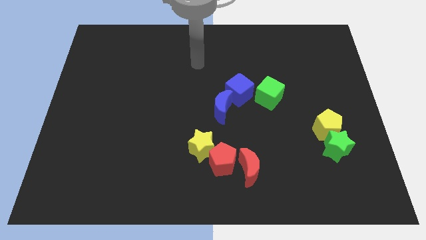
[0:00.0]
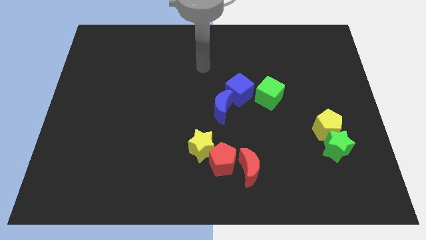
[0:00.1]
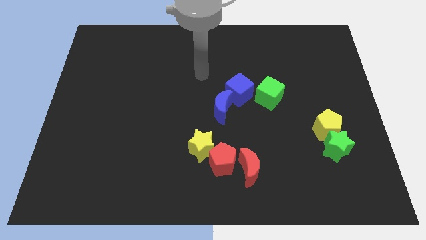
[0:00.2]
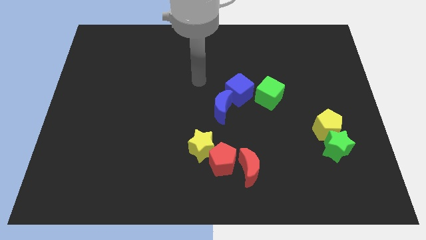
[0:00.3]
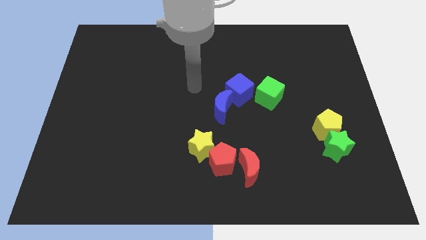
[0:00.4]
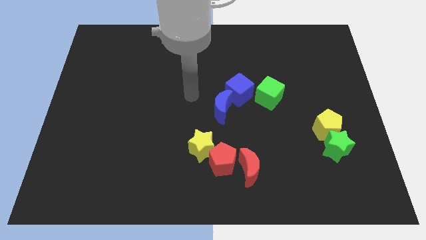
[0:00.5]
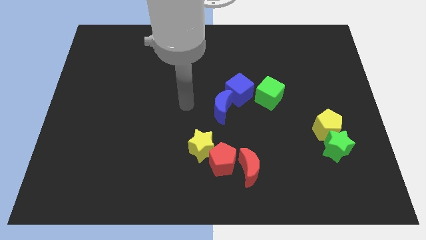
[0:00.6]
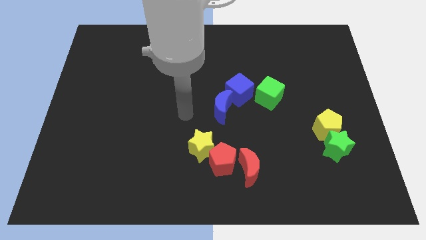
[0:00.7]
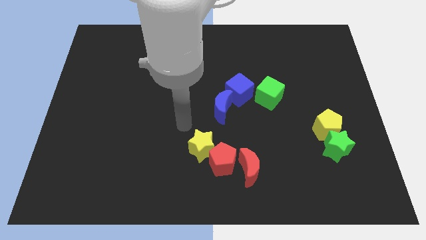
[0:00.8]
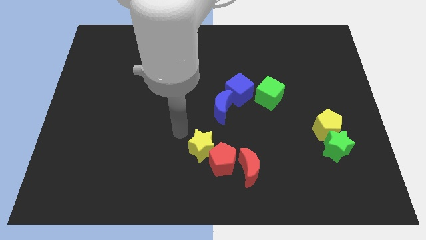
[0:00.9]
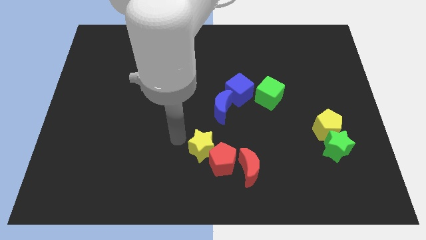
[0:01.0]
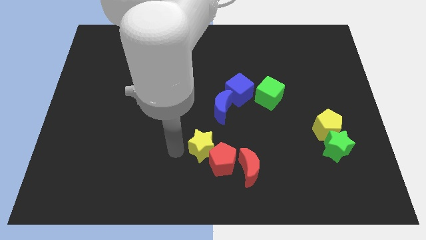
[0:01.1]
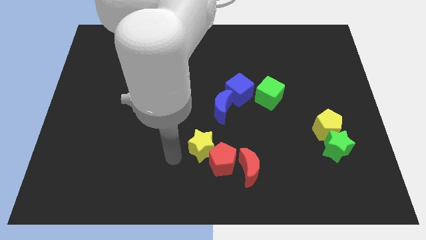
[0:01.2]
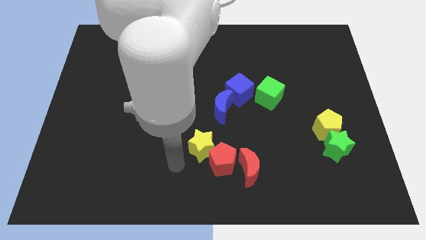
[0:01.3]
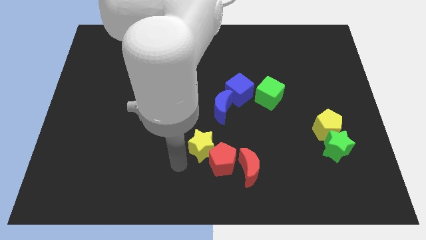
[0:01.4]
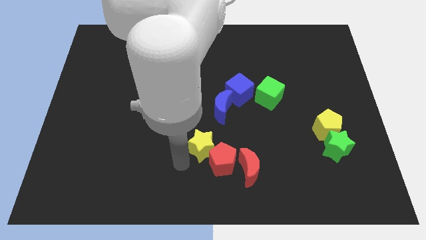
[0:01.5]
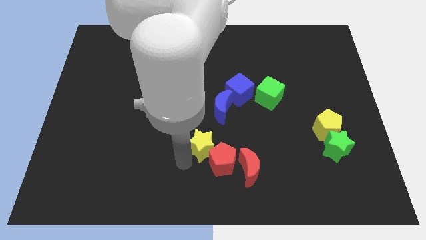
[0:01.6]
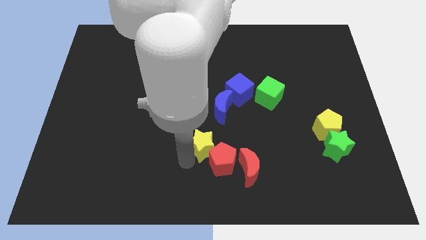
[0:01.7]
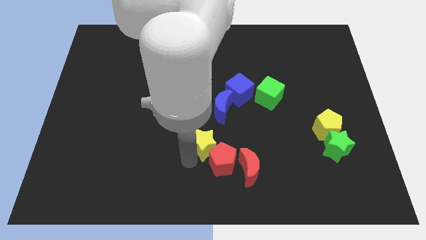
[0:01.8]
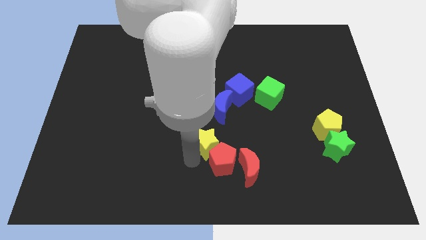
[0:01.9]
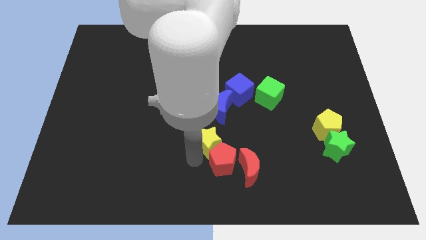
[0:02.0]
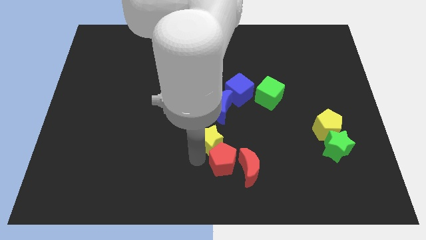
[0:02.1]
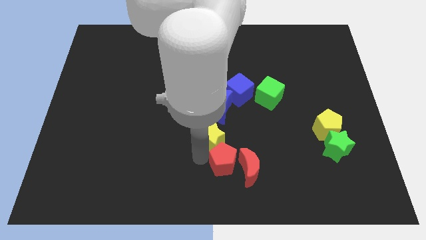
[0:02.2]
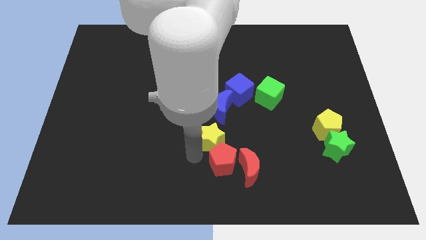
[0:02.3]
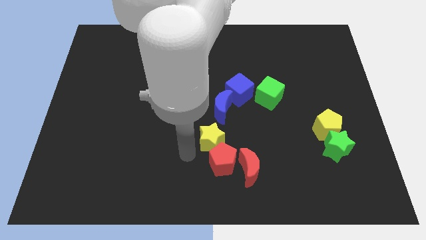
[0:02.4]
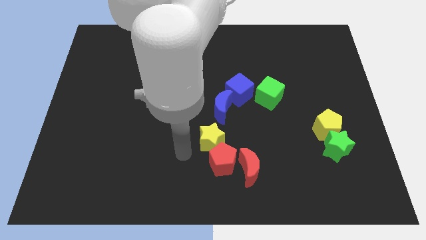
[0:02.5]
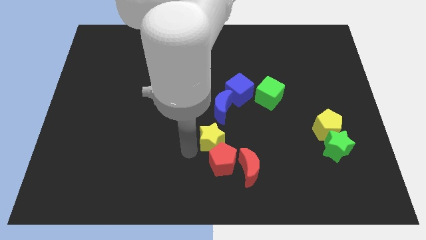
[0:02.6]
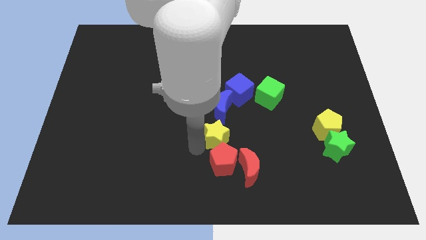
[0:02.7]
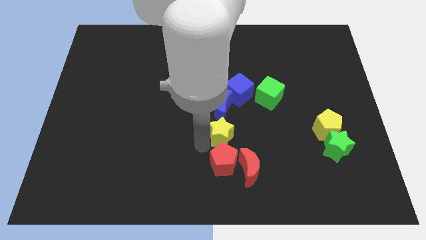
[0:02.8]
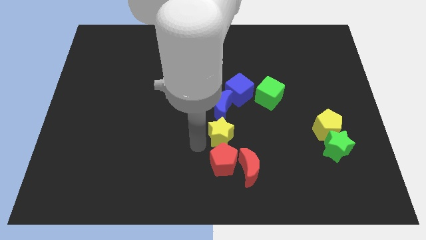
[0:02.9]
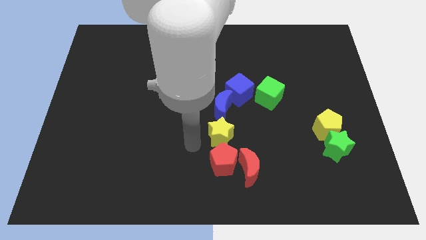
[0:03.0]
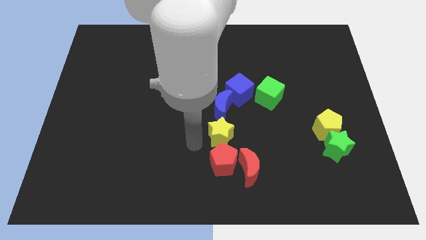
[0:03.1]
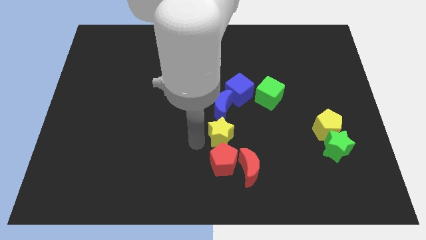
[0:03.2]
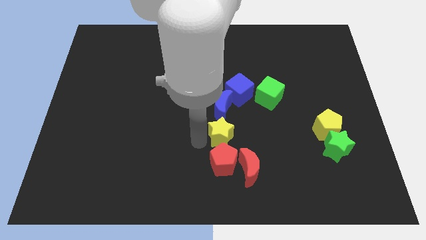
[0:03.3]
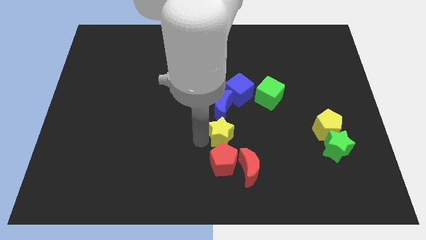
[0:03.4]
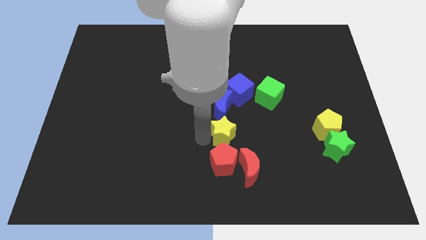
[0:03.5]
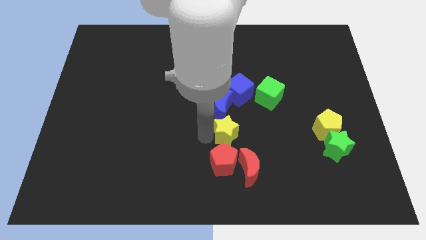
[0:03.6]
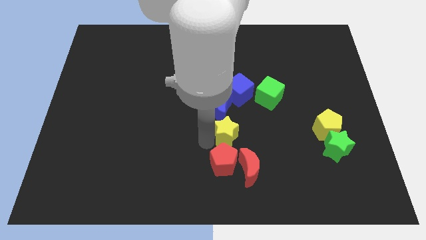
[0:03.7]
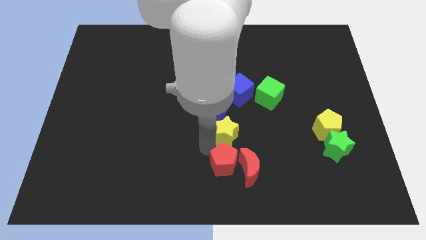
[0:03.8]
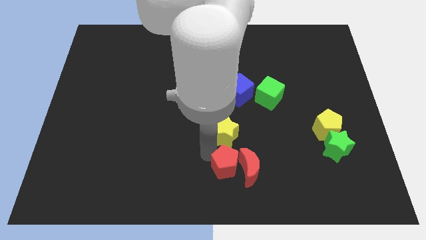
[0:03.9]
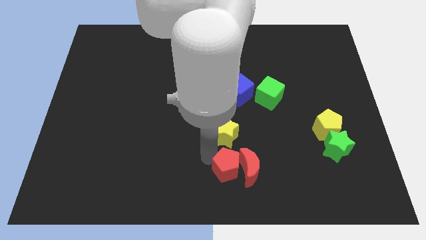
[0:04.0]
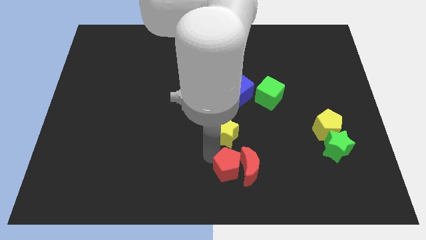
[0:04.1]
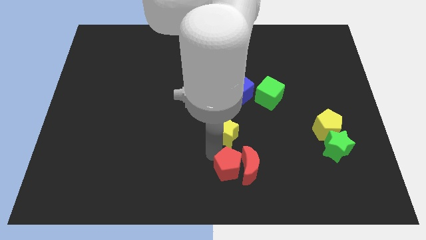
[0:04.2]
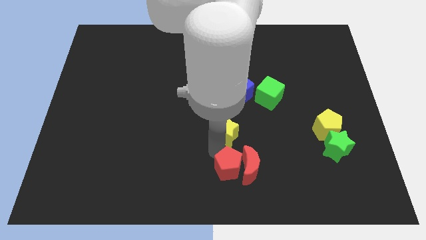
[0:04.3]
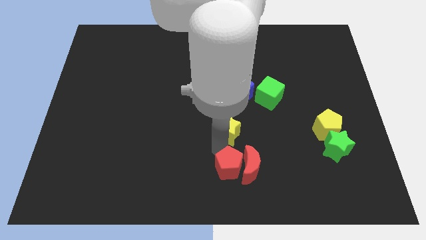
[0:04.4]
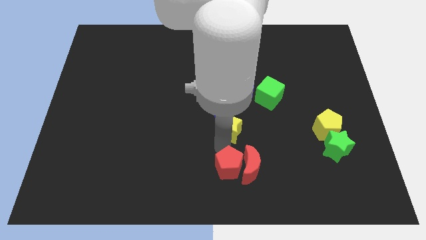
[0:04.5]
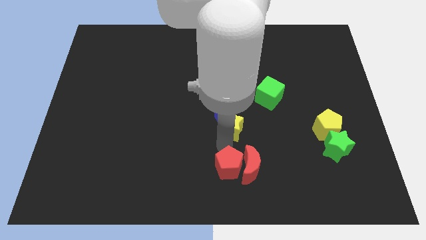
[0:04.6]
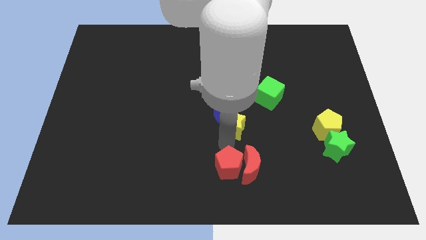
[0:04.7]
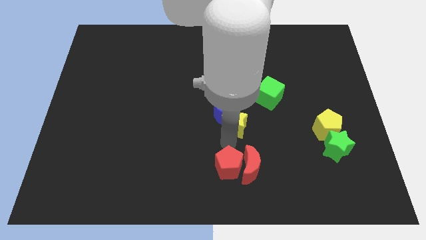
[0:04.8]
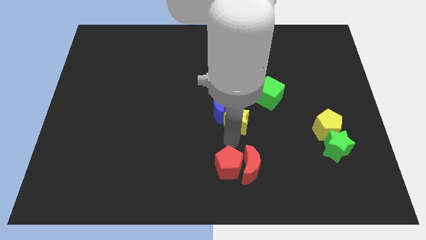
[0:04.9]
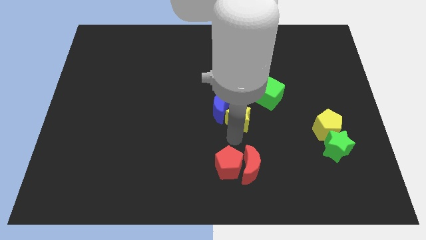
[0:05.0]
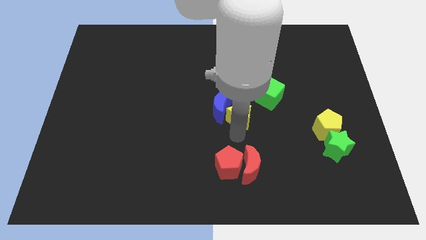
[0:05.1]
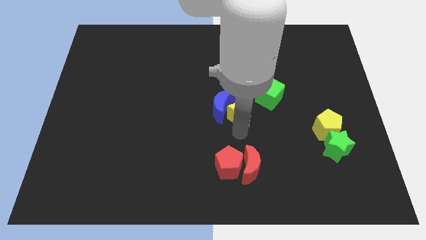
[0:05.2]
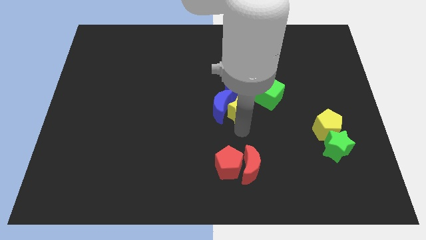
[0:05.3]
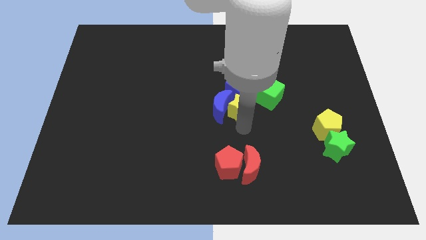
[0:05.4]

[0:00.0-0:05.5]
move the yellow star next to the blue cube

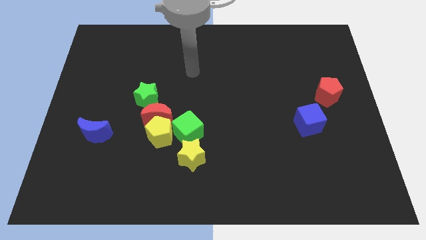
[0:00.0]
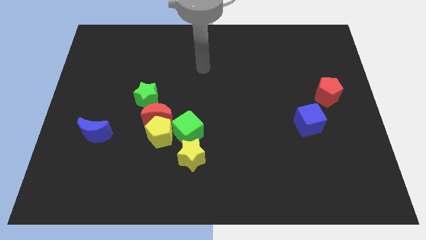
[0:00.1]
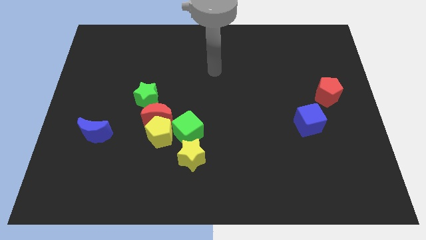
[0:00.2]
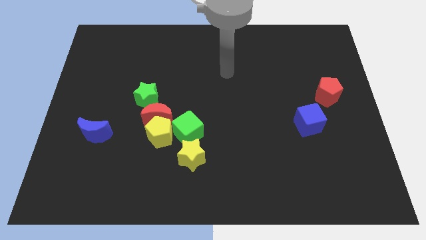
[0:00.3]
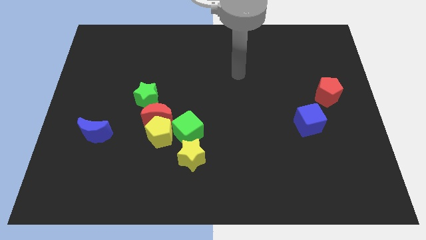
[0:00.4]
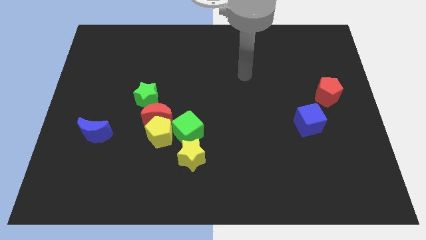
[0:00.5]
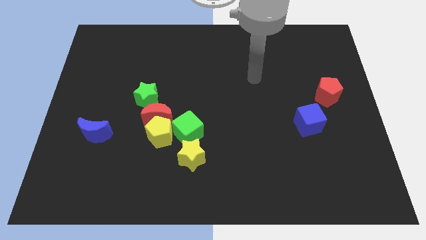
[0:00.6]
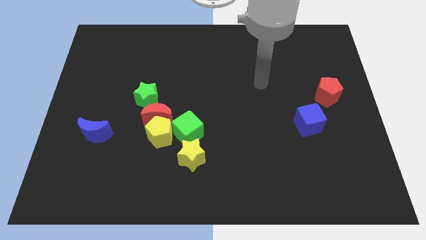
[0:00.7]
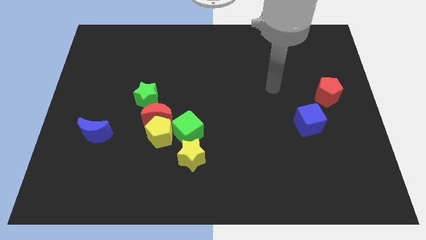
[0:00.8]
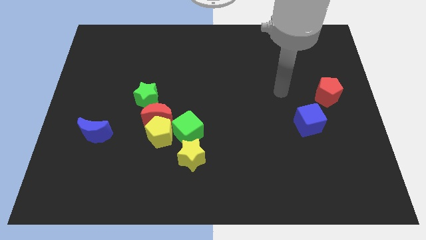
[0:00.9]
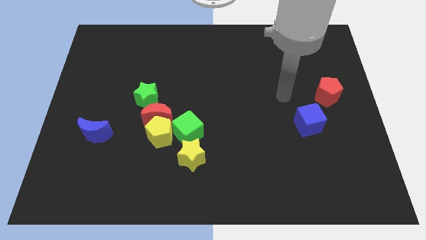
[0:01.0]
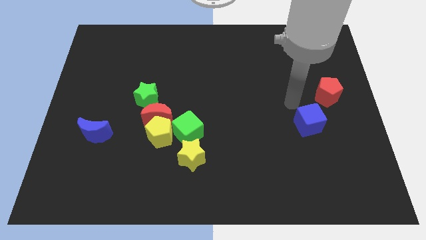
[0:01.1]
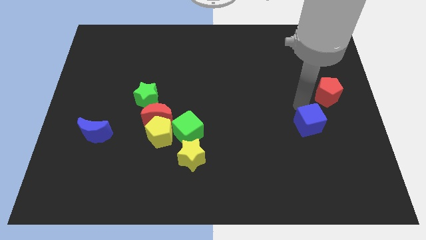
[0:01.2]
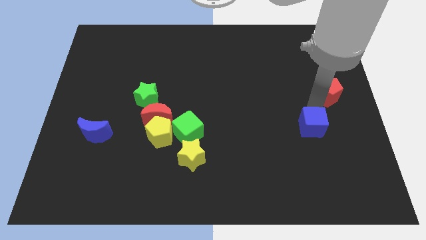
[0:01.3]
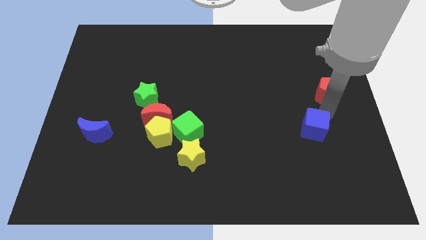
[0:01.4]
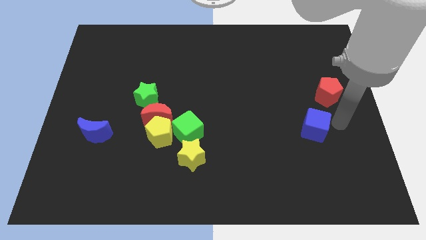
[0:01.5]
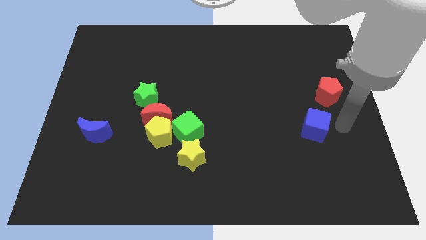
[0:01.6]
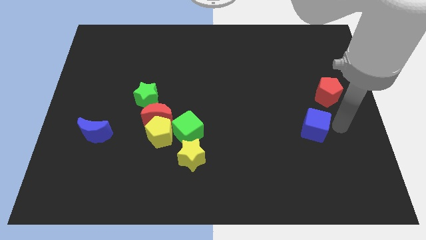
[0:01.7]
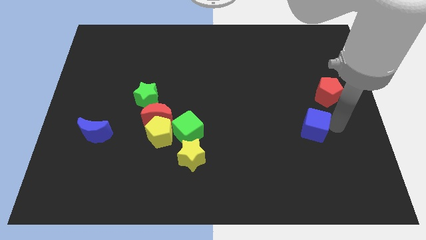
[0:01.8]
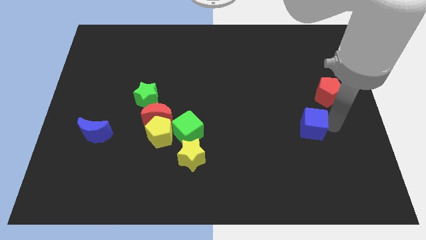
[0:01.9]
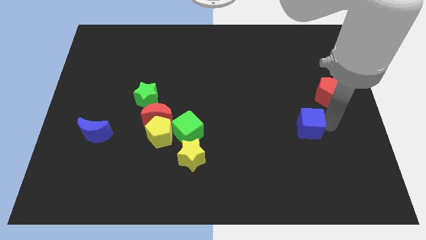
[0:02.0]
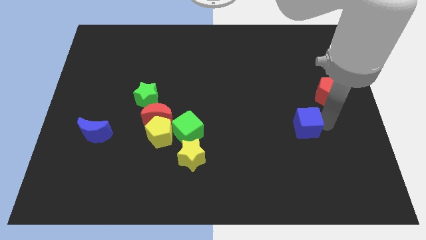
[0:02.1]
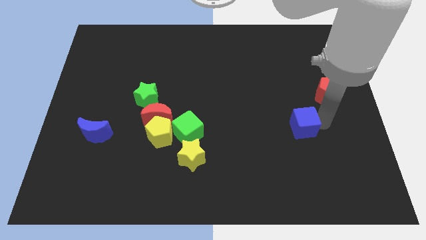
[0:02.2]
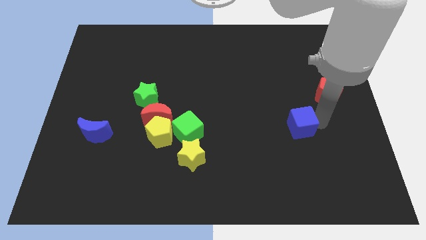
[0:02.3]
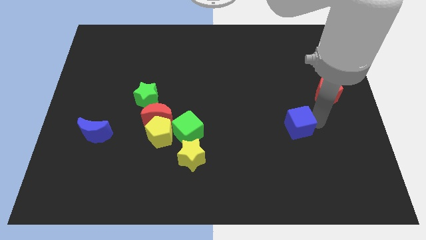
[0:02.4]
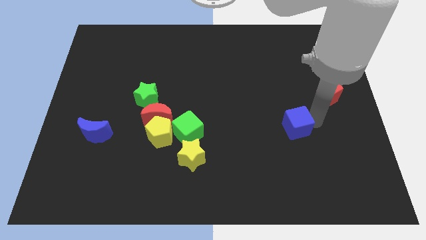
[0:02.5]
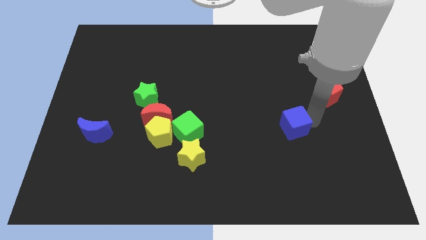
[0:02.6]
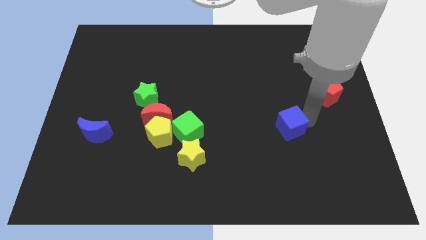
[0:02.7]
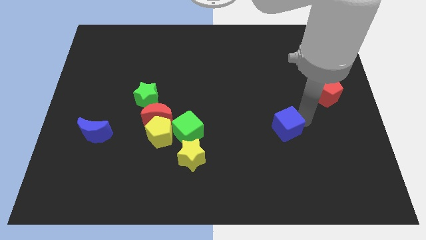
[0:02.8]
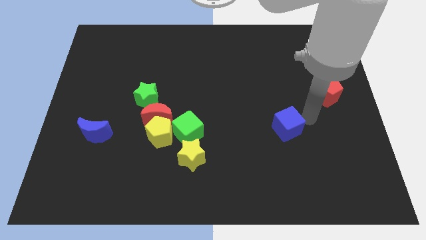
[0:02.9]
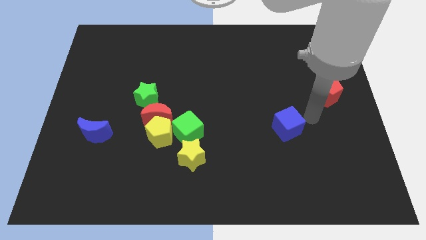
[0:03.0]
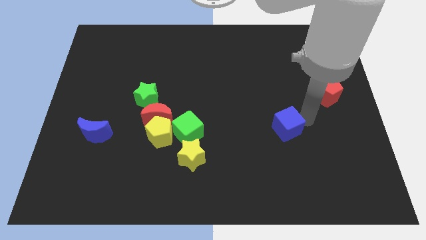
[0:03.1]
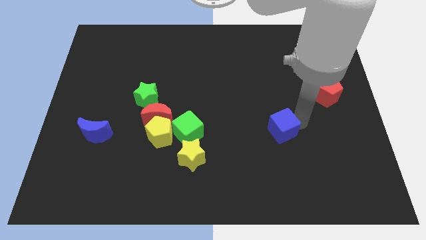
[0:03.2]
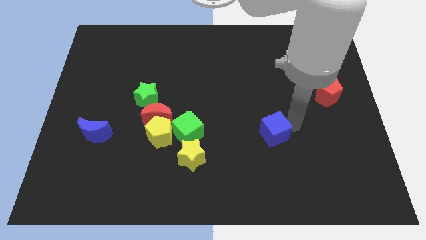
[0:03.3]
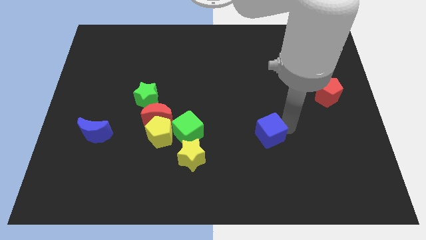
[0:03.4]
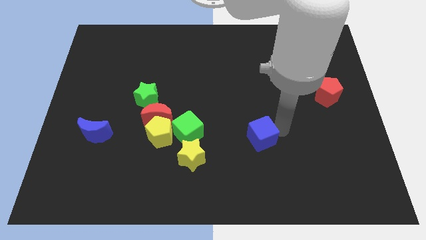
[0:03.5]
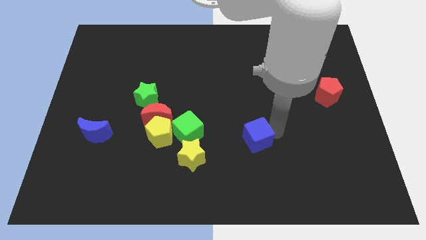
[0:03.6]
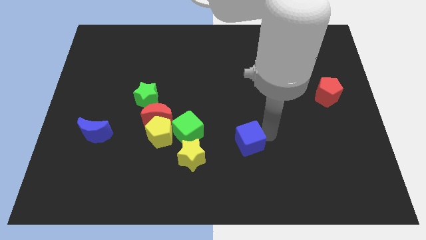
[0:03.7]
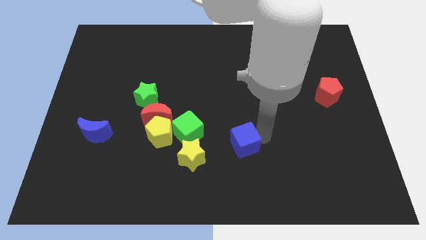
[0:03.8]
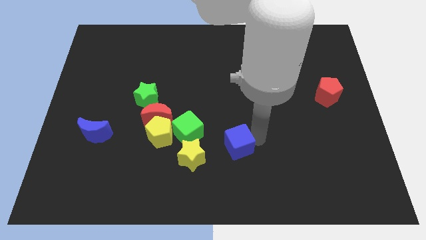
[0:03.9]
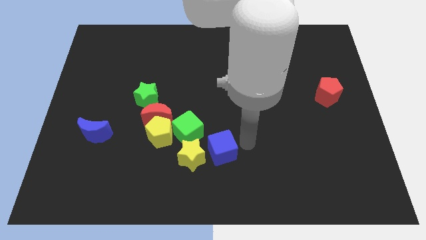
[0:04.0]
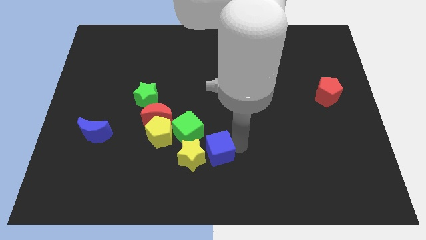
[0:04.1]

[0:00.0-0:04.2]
slide the blue cube next to the yellow star
